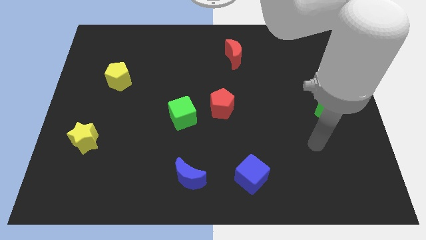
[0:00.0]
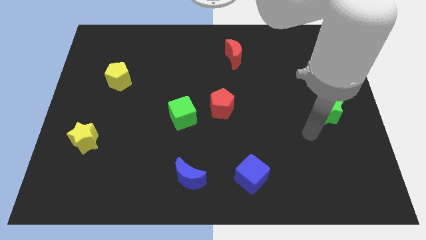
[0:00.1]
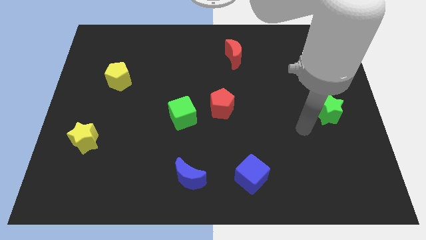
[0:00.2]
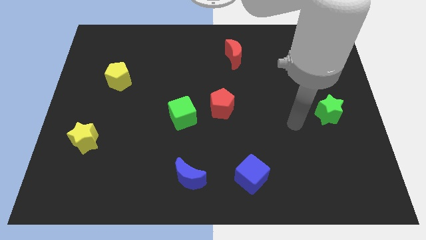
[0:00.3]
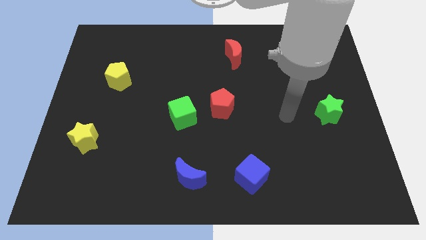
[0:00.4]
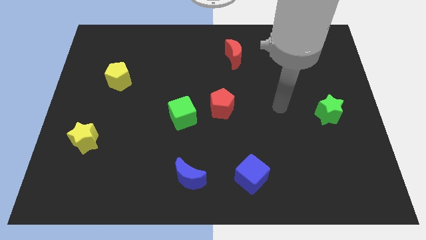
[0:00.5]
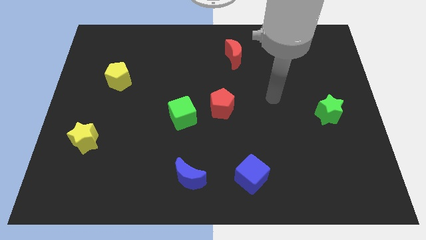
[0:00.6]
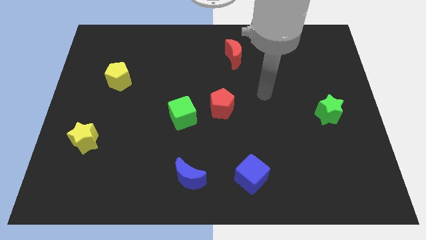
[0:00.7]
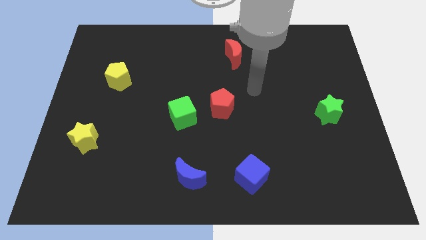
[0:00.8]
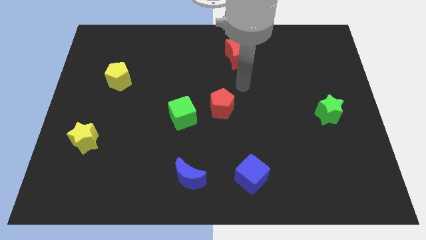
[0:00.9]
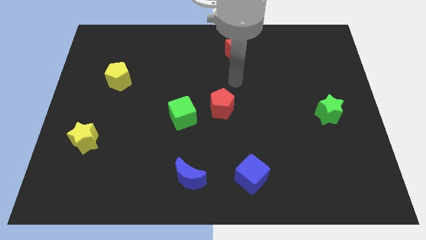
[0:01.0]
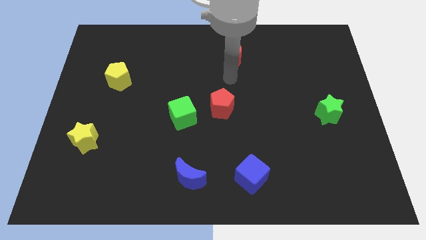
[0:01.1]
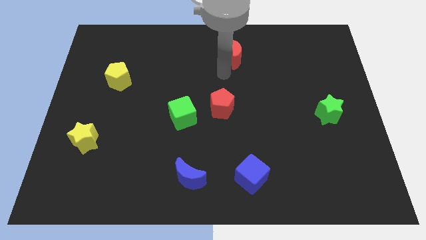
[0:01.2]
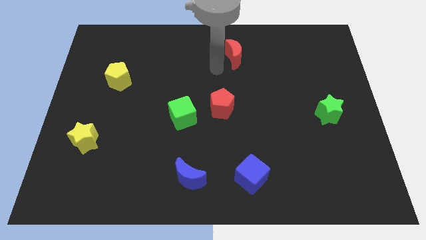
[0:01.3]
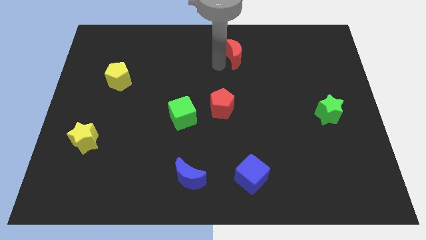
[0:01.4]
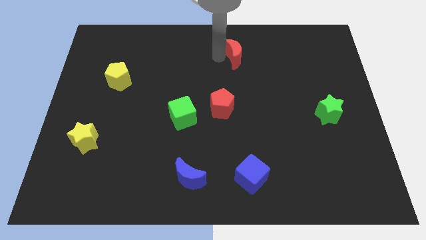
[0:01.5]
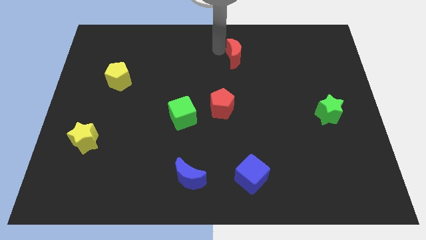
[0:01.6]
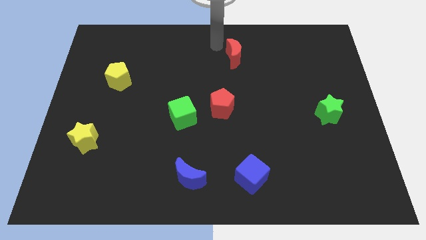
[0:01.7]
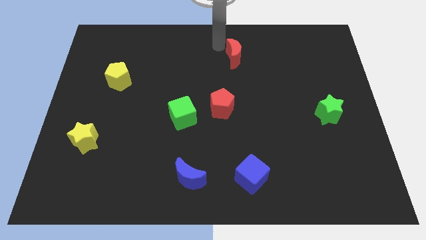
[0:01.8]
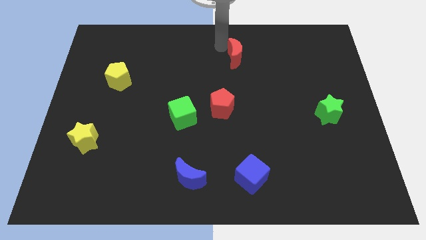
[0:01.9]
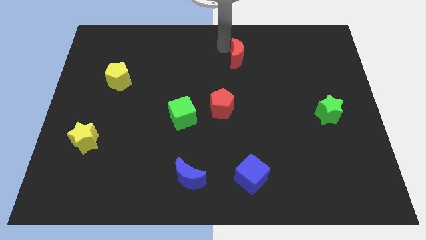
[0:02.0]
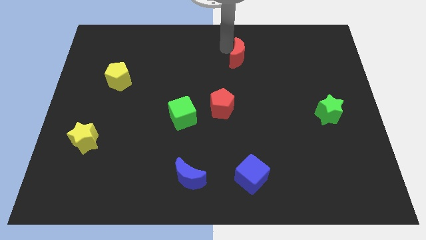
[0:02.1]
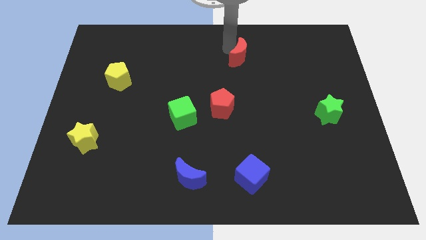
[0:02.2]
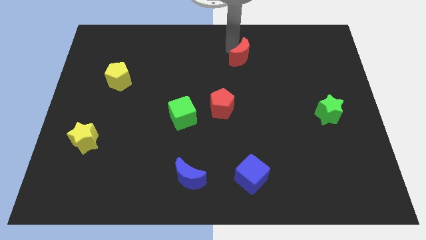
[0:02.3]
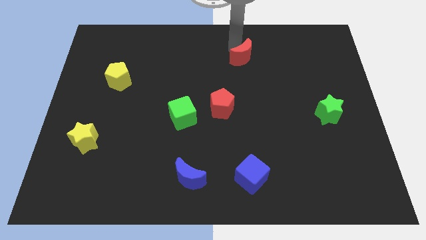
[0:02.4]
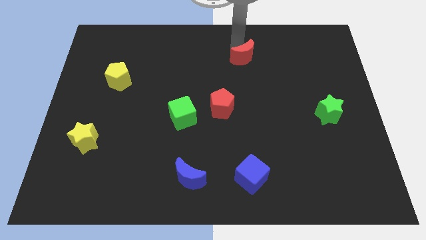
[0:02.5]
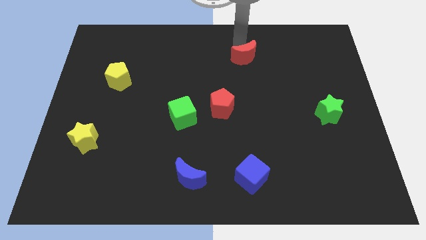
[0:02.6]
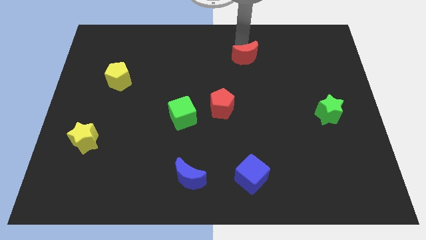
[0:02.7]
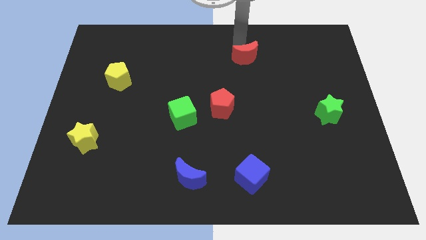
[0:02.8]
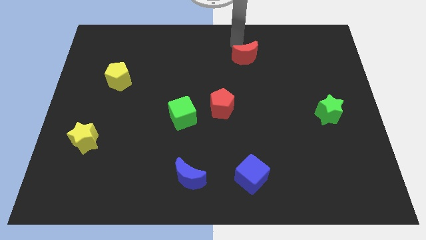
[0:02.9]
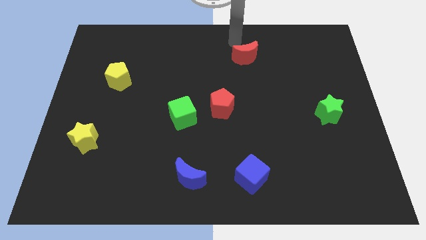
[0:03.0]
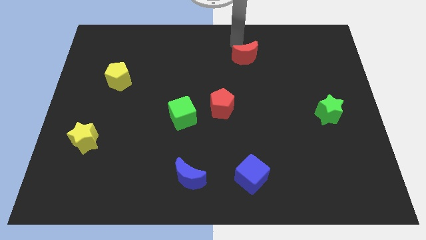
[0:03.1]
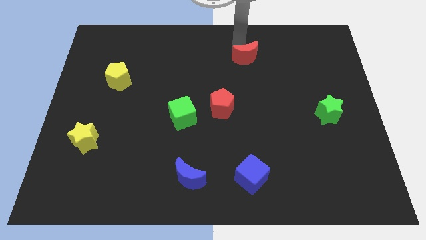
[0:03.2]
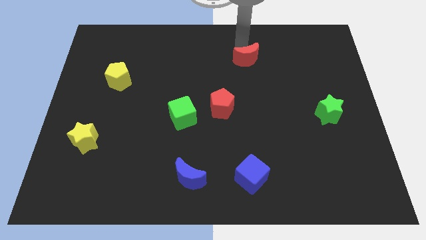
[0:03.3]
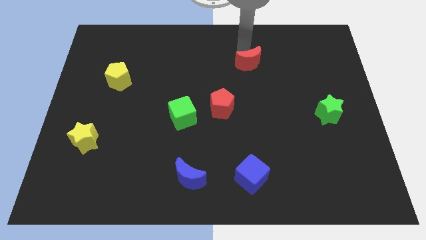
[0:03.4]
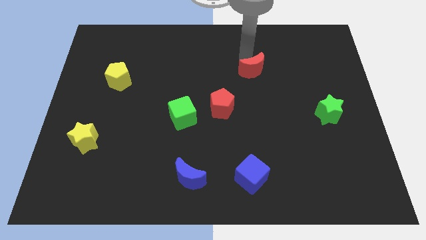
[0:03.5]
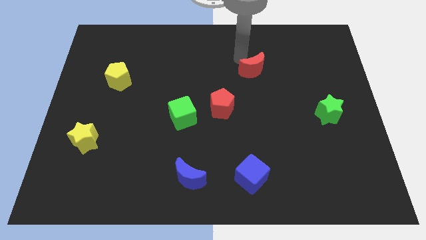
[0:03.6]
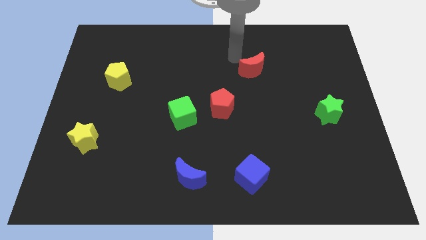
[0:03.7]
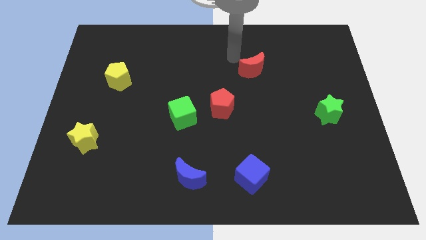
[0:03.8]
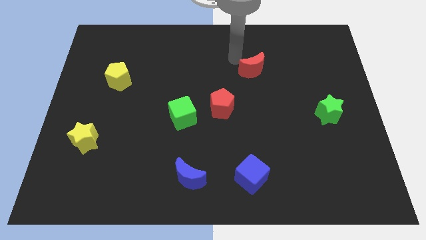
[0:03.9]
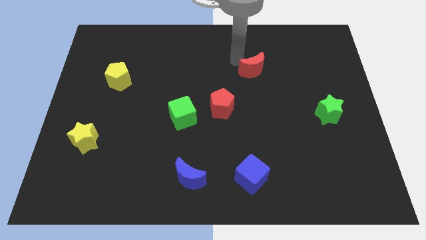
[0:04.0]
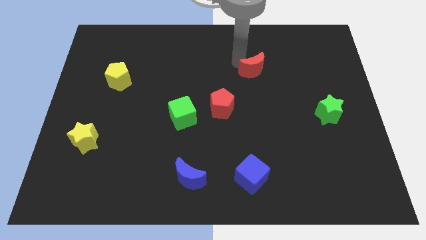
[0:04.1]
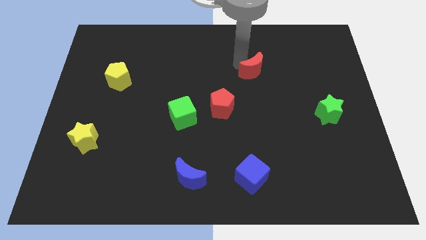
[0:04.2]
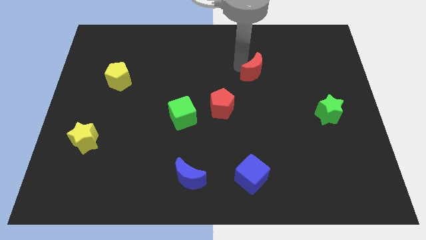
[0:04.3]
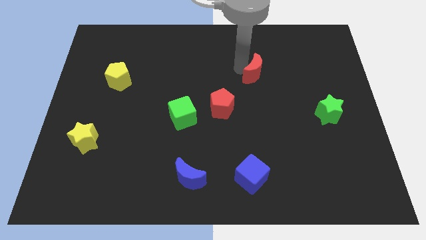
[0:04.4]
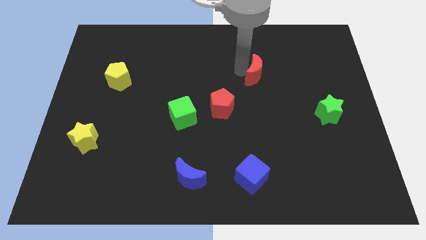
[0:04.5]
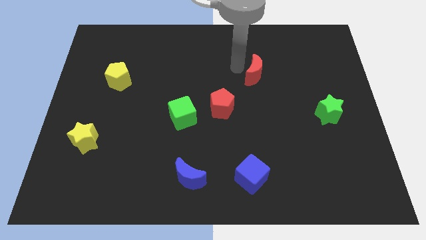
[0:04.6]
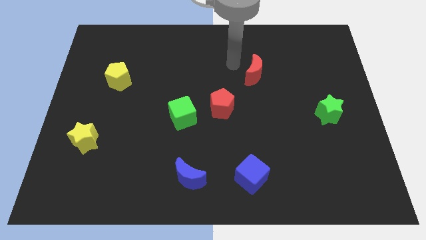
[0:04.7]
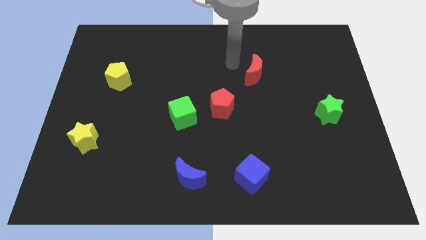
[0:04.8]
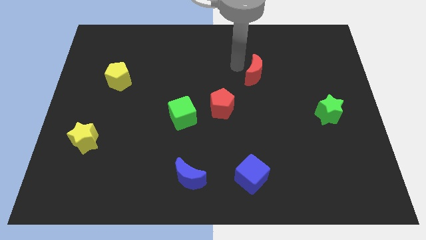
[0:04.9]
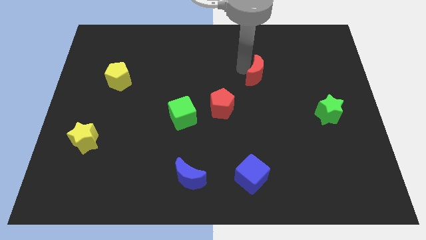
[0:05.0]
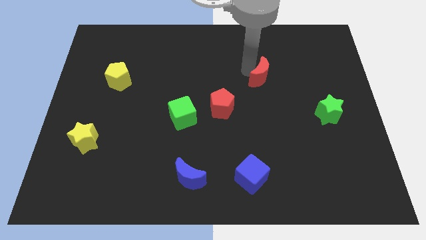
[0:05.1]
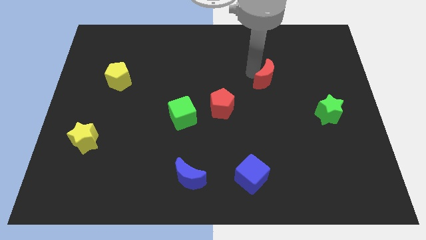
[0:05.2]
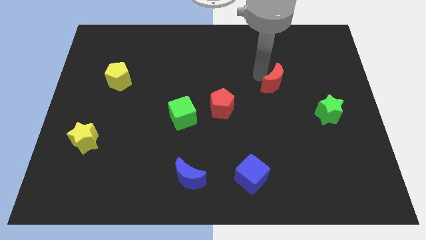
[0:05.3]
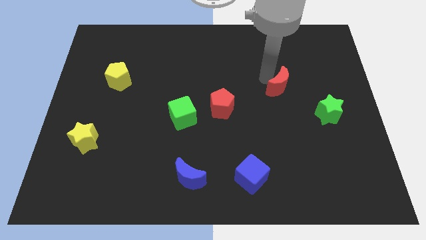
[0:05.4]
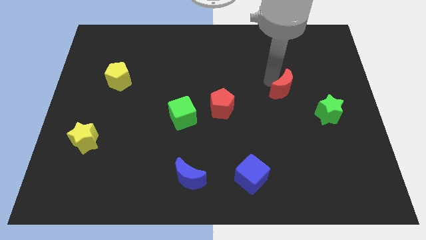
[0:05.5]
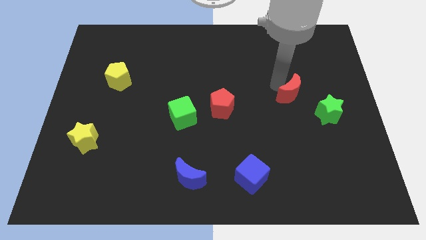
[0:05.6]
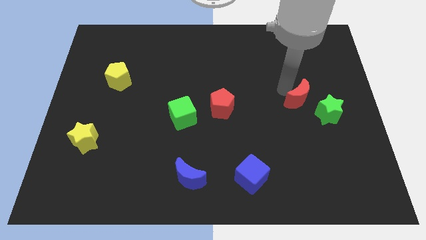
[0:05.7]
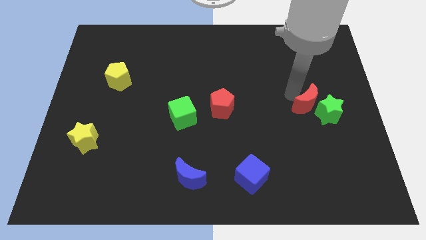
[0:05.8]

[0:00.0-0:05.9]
move the red moon to the green star

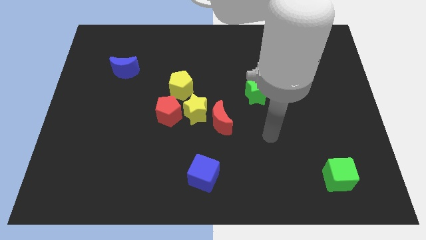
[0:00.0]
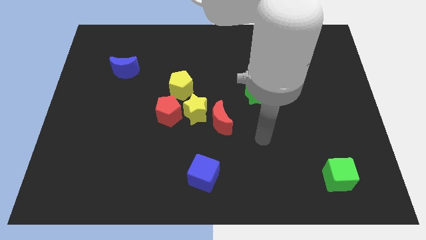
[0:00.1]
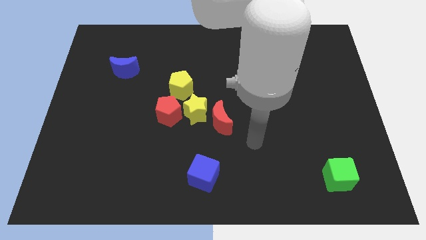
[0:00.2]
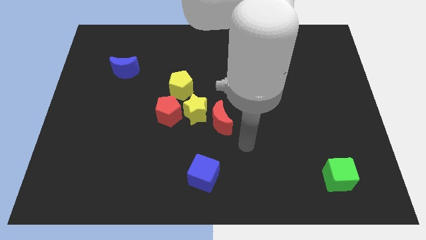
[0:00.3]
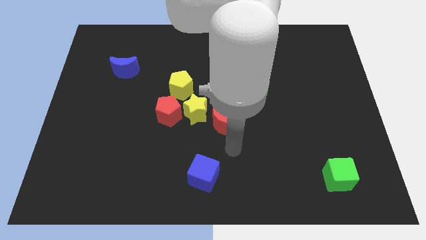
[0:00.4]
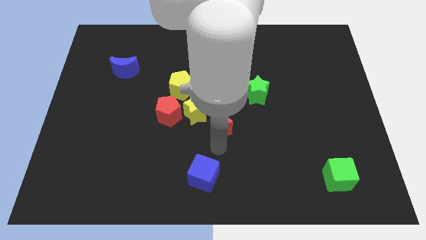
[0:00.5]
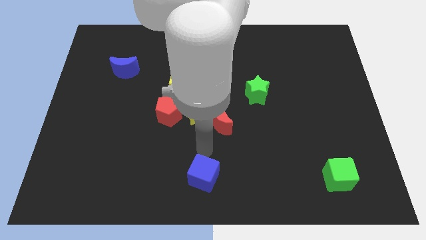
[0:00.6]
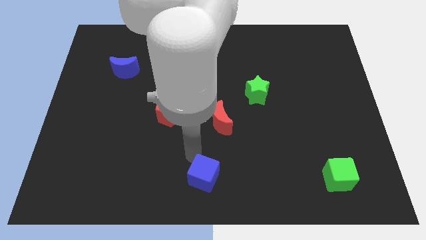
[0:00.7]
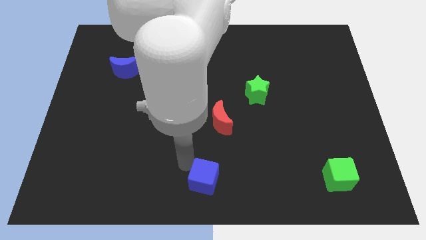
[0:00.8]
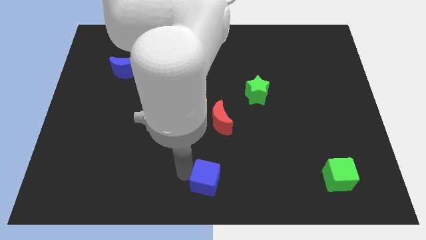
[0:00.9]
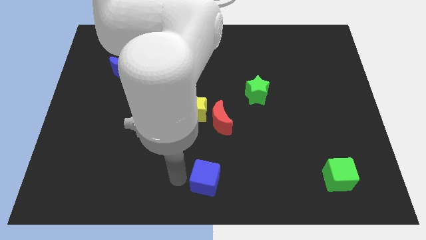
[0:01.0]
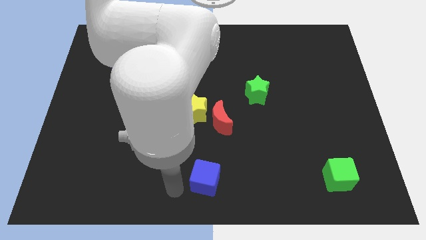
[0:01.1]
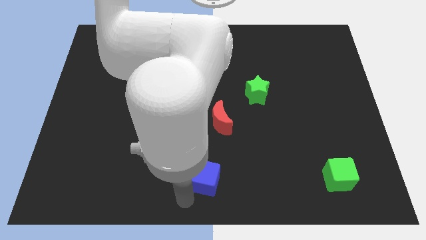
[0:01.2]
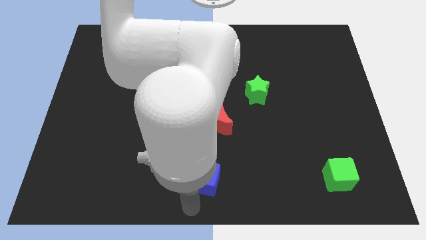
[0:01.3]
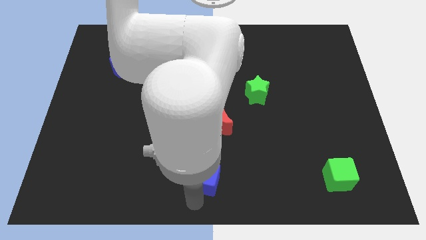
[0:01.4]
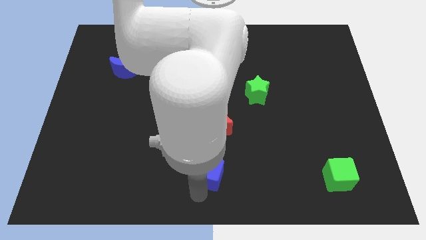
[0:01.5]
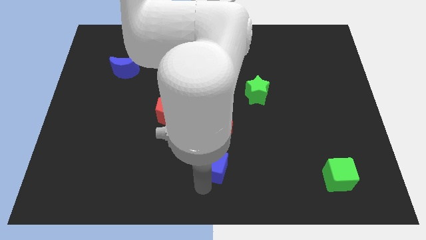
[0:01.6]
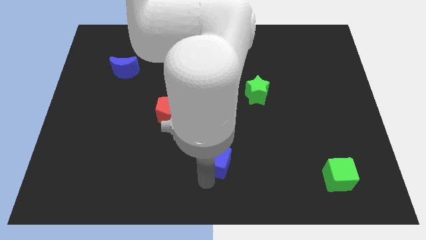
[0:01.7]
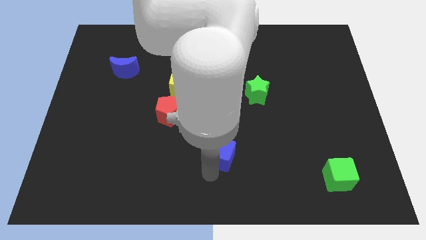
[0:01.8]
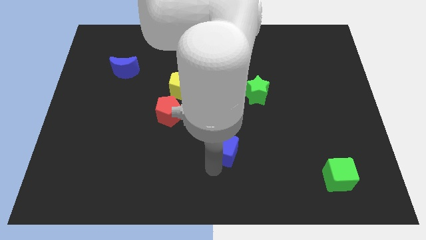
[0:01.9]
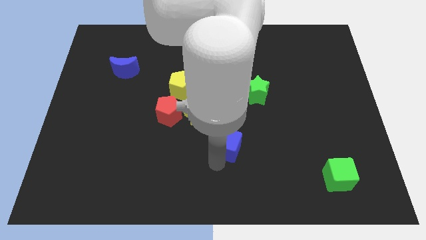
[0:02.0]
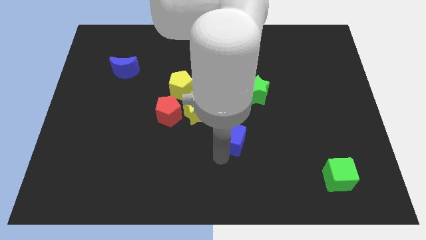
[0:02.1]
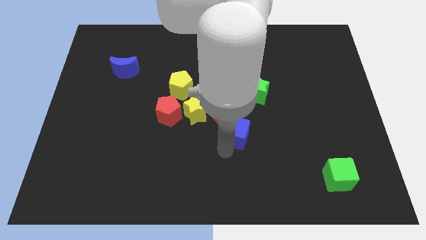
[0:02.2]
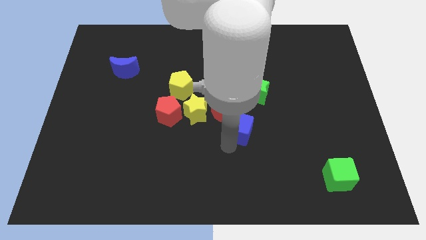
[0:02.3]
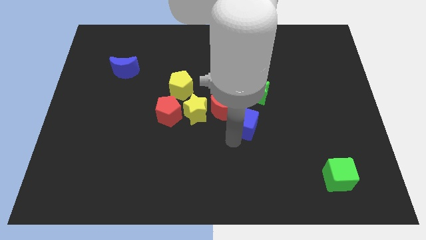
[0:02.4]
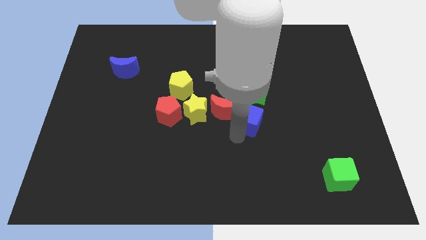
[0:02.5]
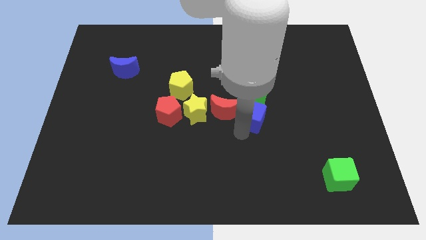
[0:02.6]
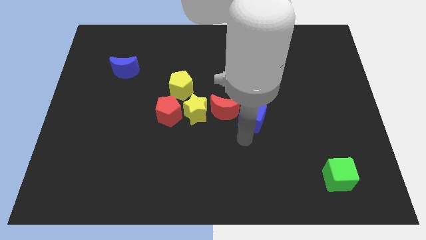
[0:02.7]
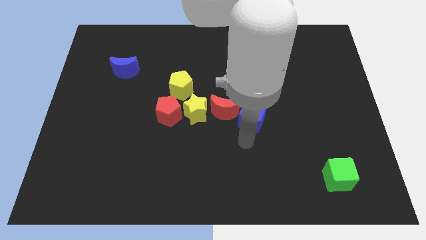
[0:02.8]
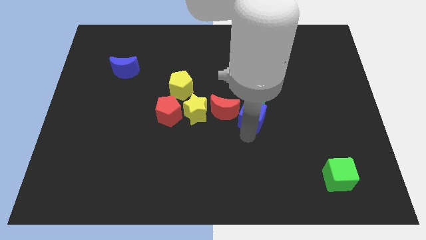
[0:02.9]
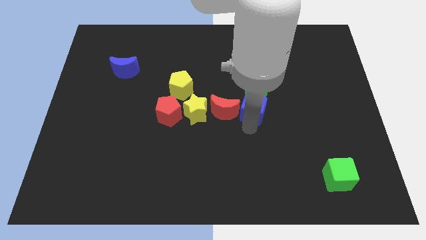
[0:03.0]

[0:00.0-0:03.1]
move the blue cube next to the green star
